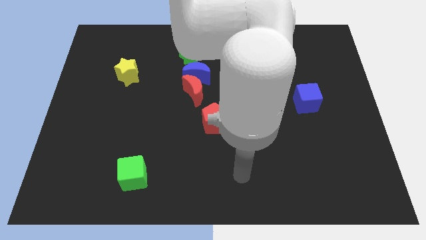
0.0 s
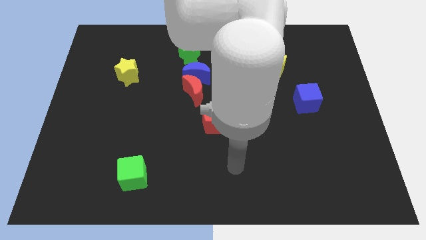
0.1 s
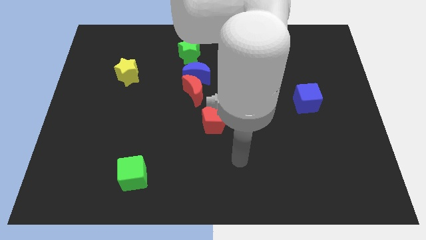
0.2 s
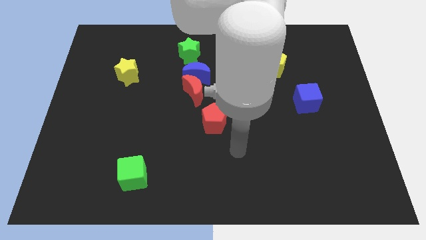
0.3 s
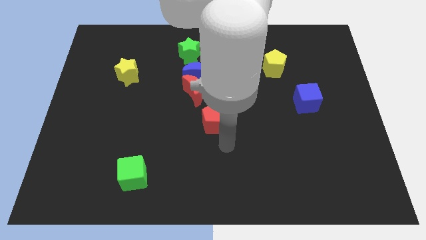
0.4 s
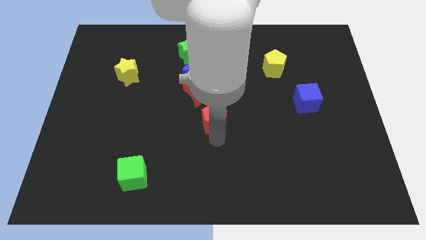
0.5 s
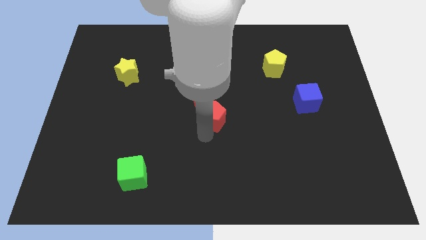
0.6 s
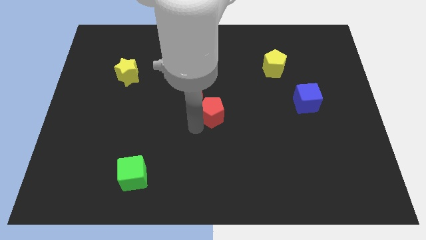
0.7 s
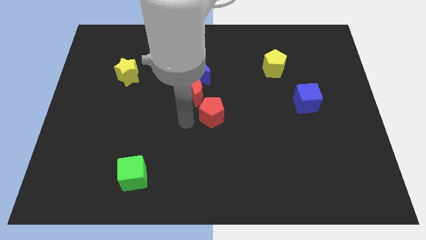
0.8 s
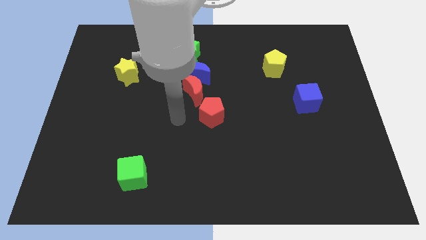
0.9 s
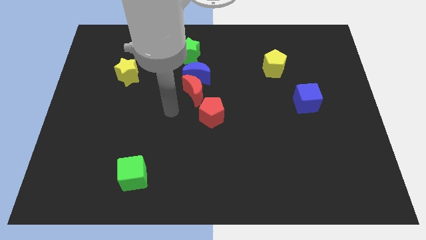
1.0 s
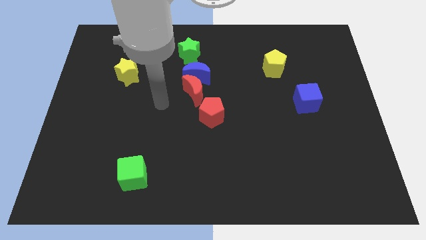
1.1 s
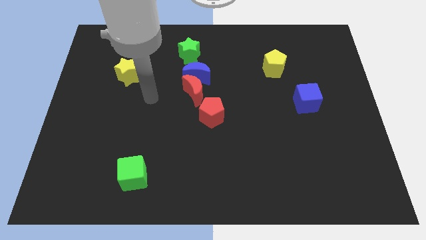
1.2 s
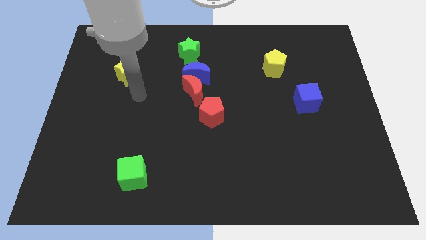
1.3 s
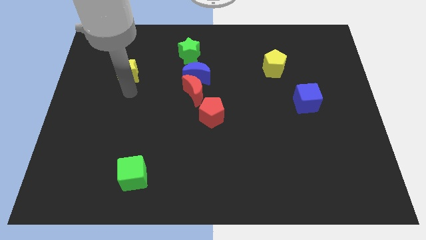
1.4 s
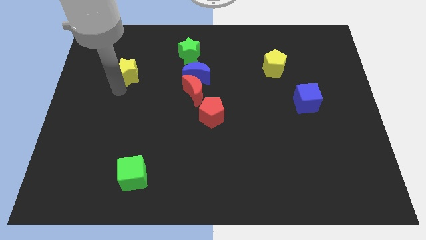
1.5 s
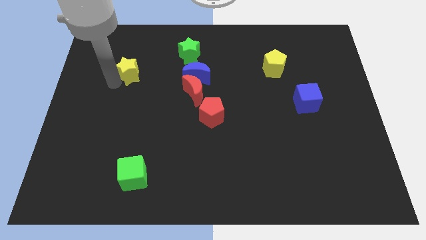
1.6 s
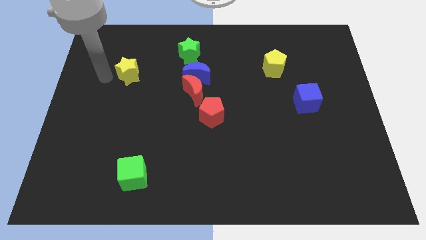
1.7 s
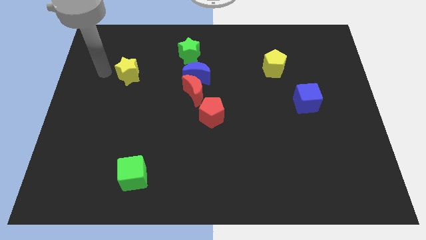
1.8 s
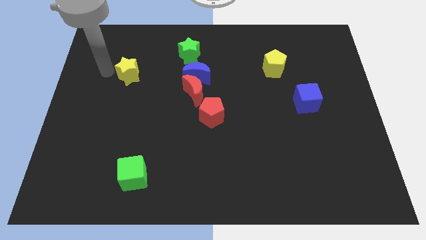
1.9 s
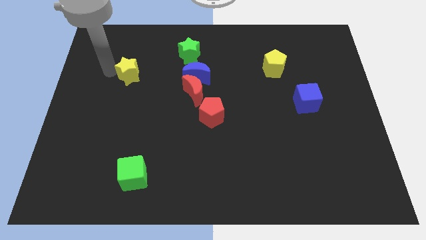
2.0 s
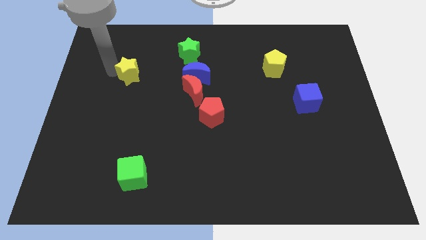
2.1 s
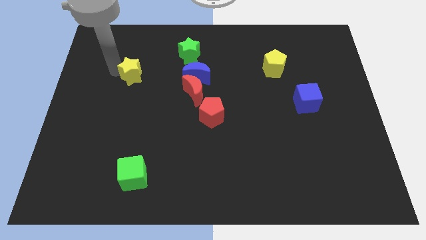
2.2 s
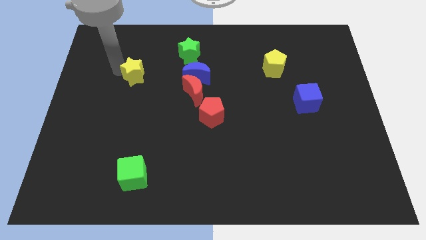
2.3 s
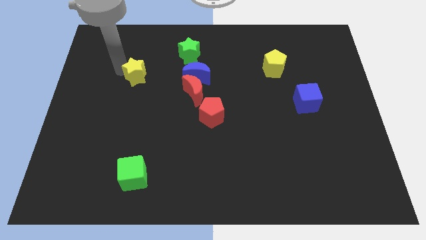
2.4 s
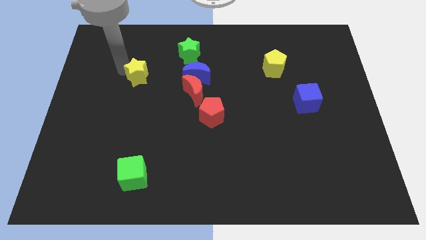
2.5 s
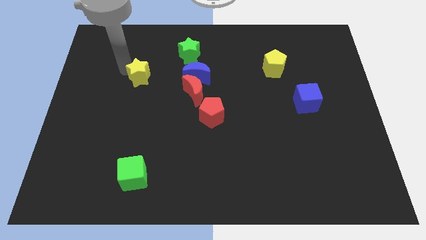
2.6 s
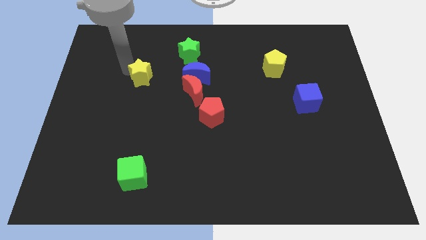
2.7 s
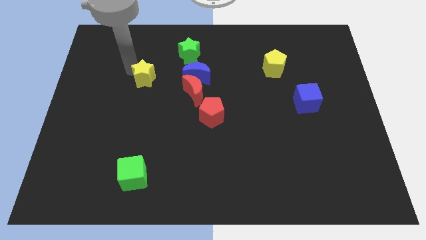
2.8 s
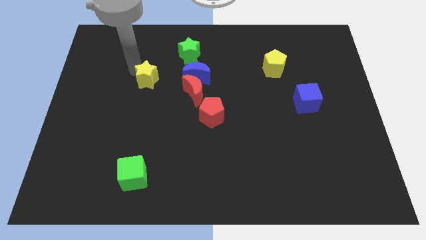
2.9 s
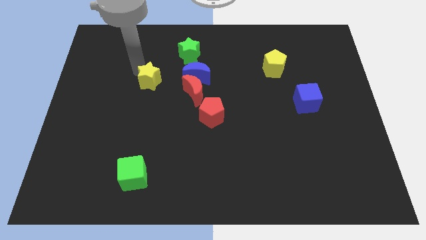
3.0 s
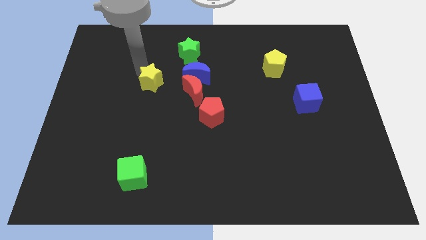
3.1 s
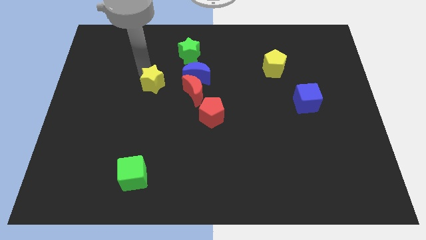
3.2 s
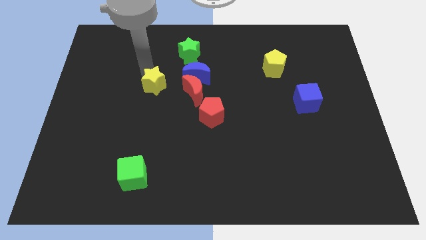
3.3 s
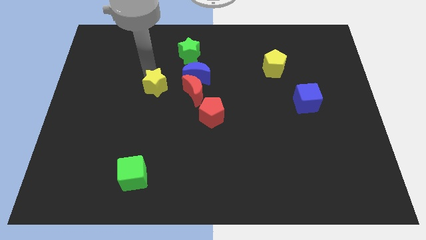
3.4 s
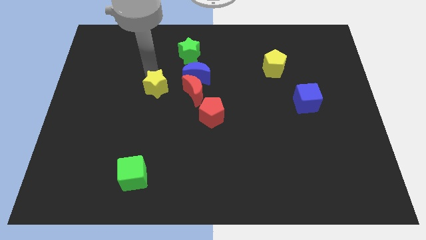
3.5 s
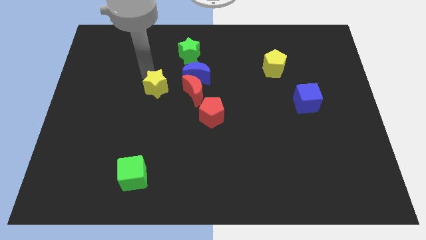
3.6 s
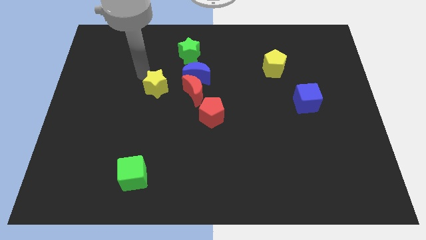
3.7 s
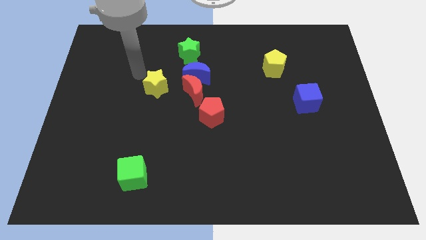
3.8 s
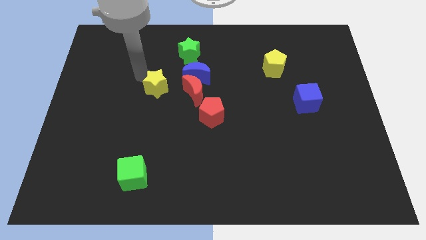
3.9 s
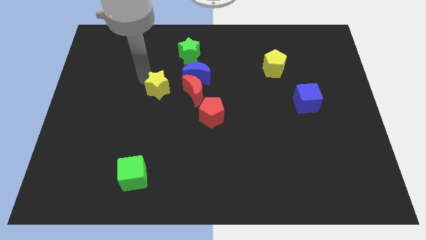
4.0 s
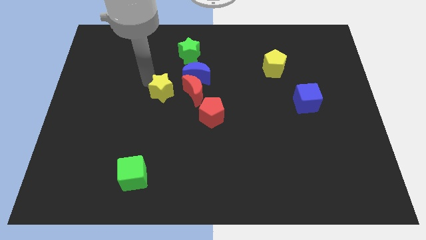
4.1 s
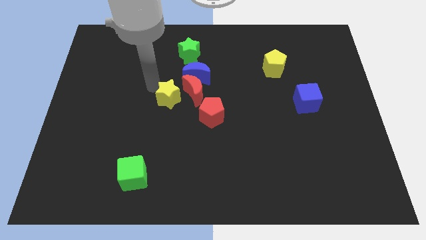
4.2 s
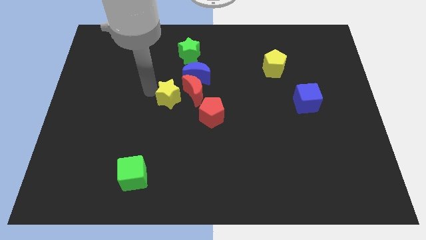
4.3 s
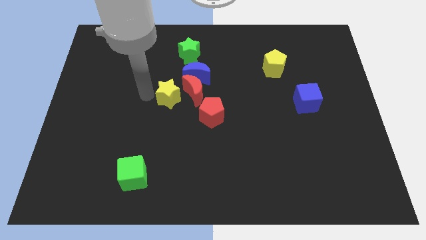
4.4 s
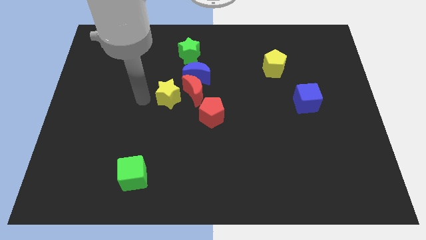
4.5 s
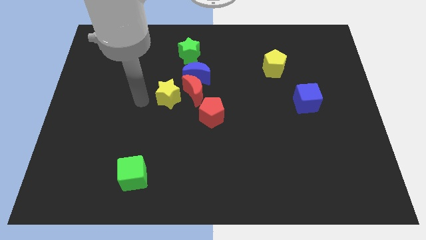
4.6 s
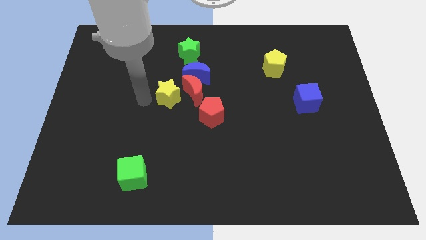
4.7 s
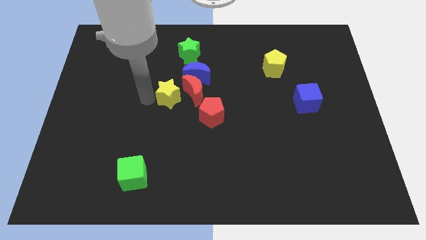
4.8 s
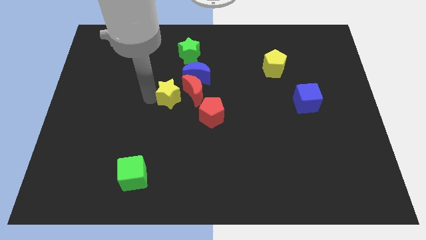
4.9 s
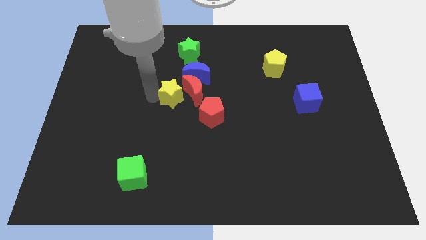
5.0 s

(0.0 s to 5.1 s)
push the yellow star close to the red moon

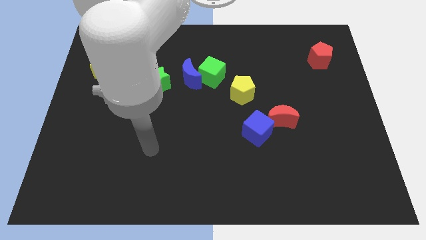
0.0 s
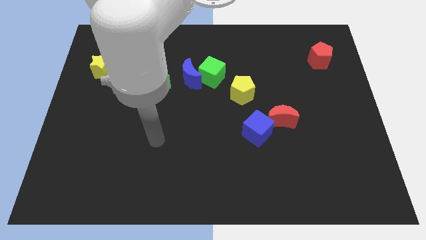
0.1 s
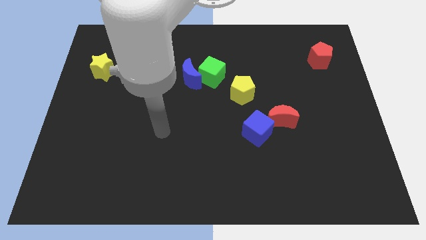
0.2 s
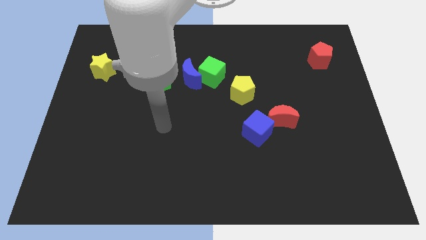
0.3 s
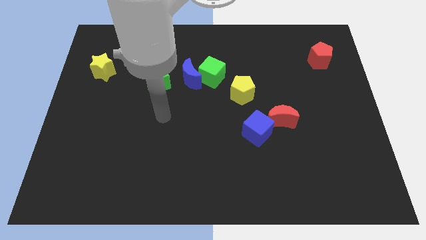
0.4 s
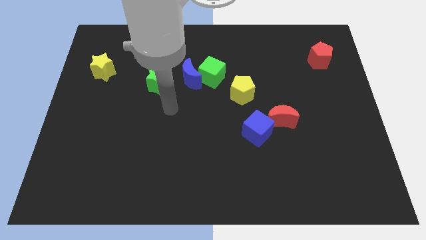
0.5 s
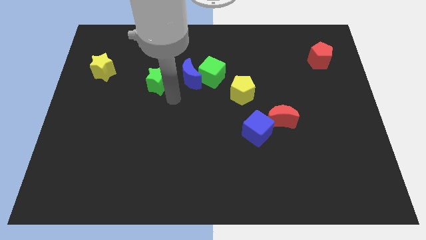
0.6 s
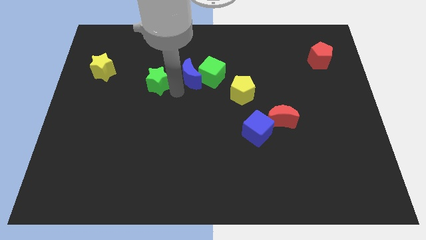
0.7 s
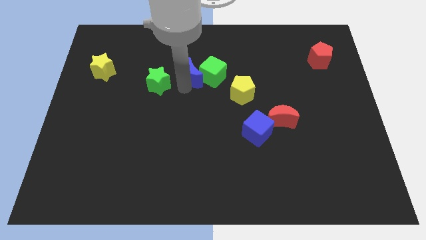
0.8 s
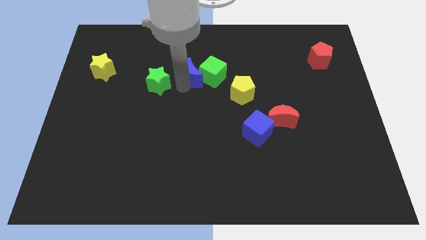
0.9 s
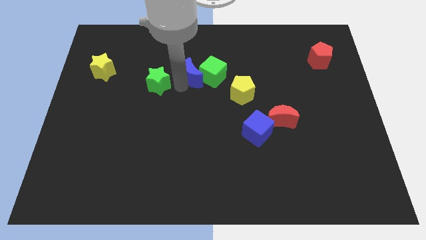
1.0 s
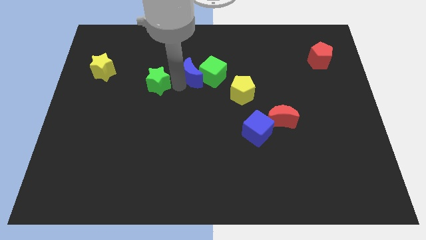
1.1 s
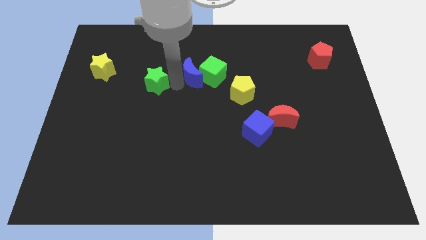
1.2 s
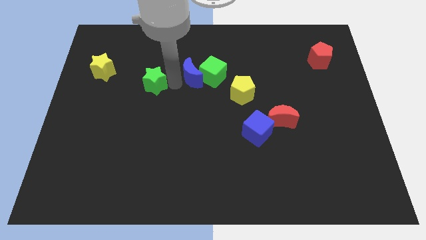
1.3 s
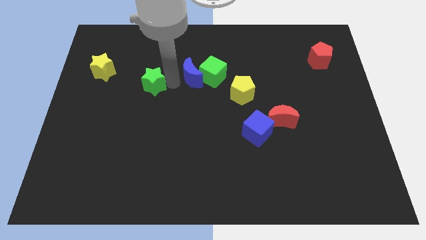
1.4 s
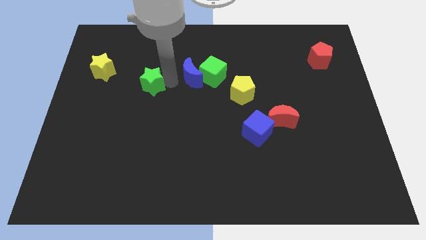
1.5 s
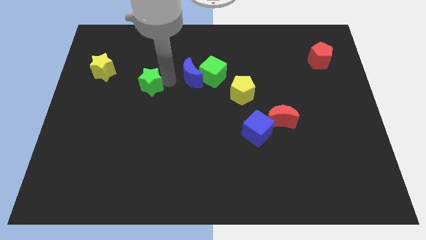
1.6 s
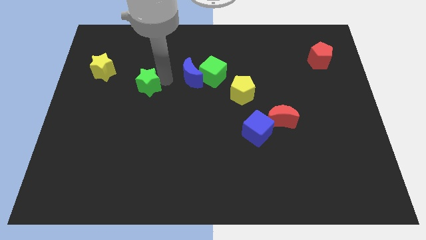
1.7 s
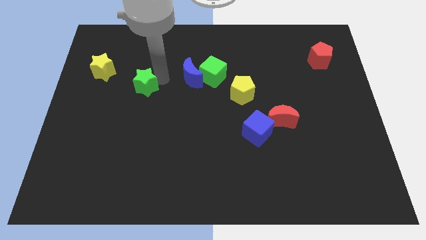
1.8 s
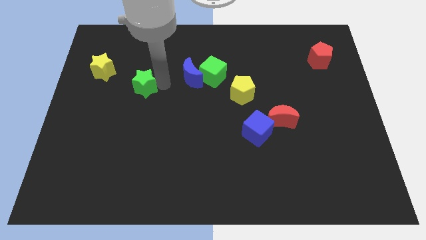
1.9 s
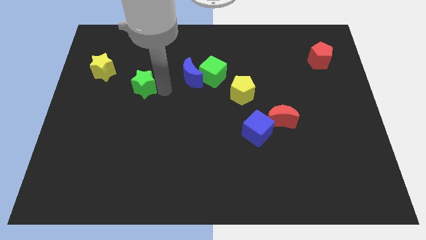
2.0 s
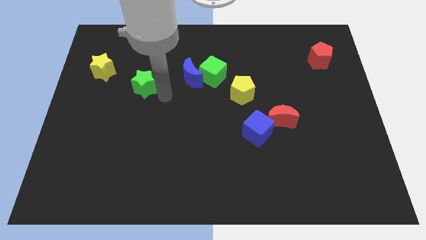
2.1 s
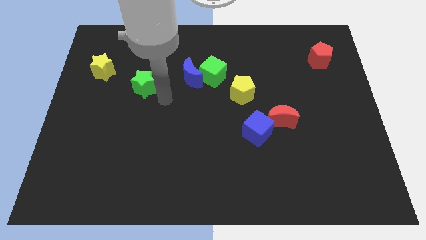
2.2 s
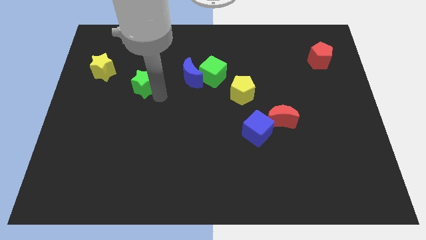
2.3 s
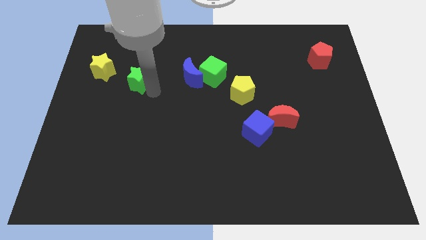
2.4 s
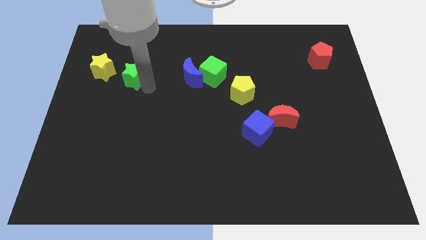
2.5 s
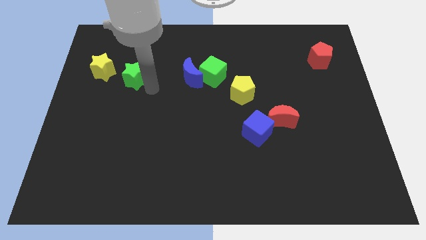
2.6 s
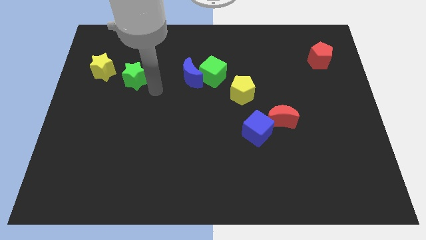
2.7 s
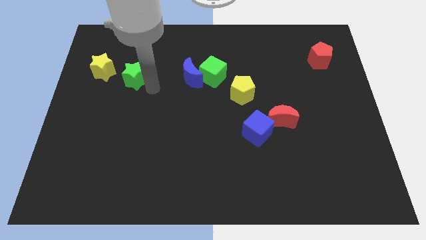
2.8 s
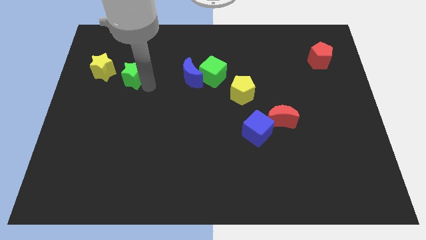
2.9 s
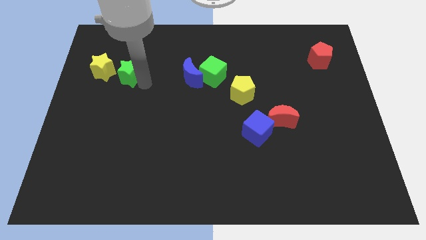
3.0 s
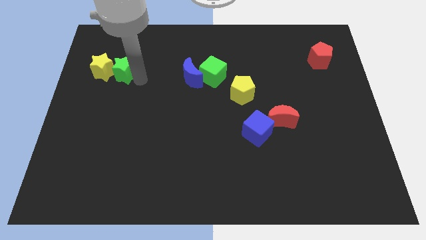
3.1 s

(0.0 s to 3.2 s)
move the green star next to the yellow star
